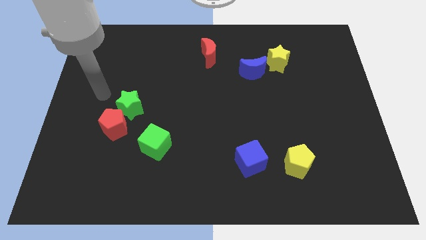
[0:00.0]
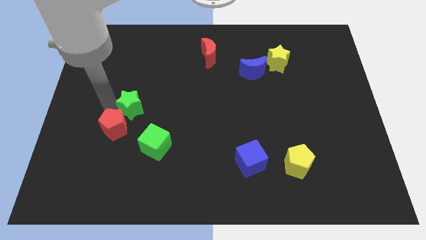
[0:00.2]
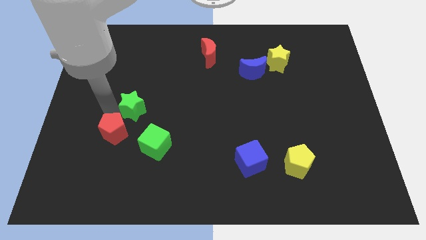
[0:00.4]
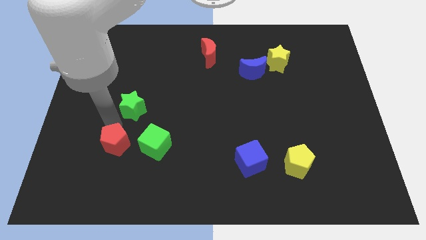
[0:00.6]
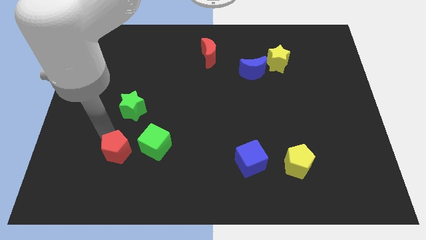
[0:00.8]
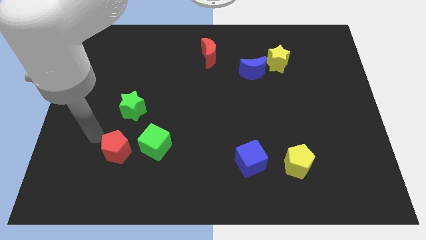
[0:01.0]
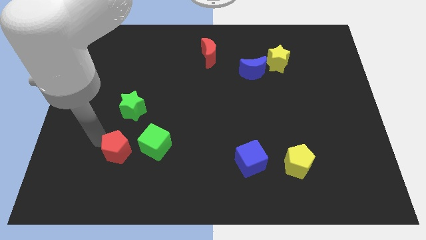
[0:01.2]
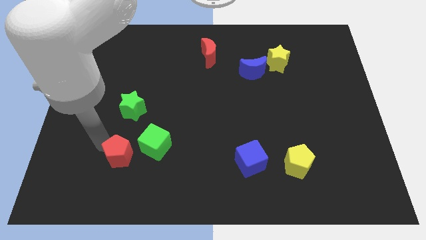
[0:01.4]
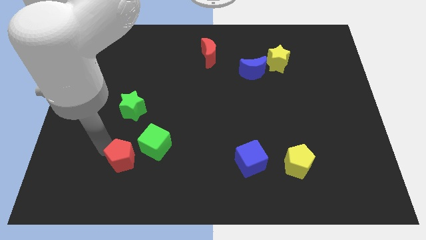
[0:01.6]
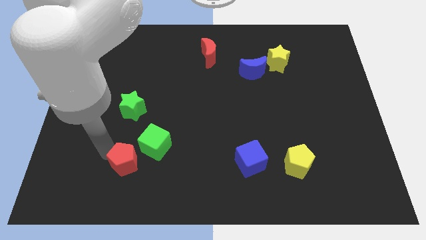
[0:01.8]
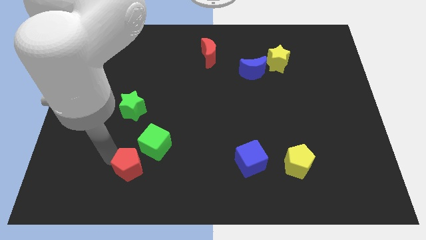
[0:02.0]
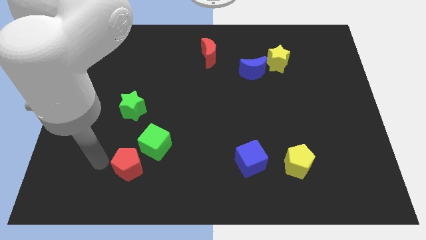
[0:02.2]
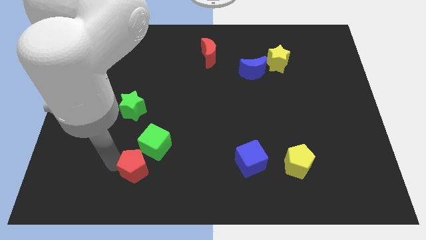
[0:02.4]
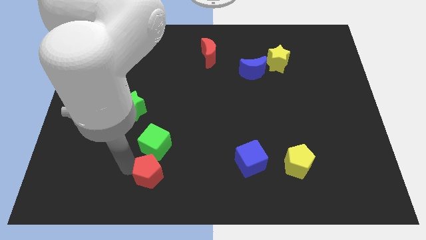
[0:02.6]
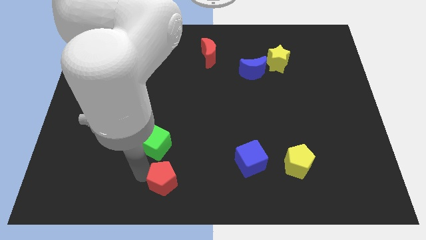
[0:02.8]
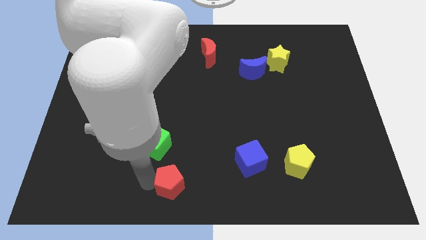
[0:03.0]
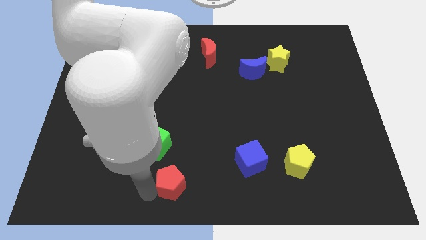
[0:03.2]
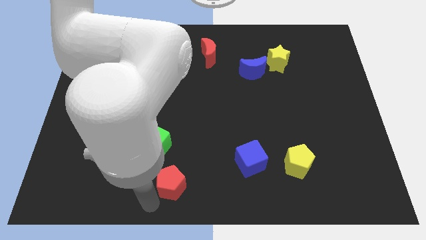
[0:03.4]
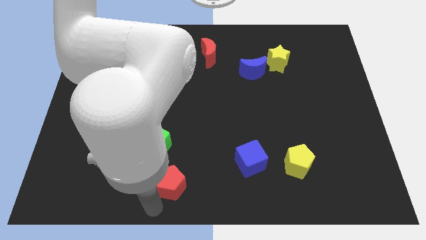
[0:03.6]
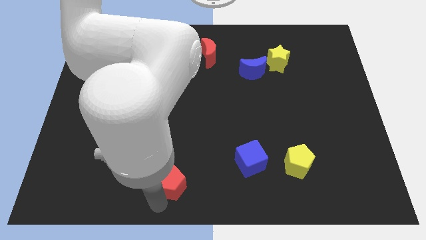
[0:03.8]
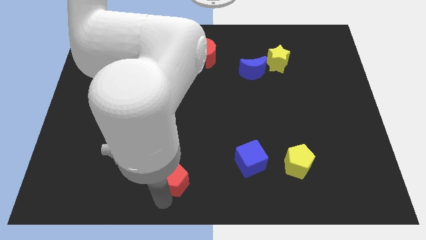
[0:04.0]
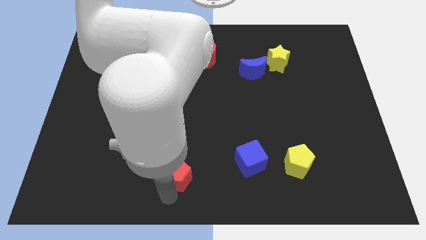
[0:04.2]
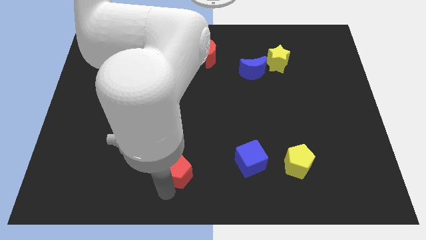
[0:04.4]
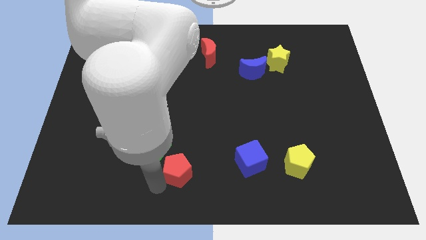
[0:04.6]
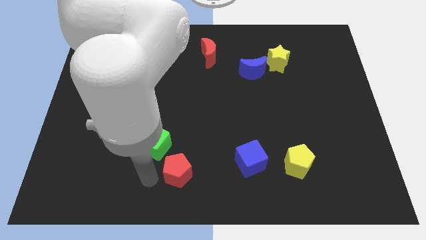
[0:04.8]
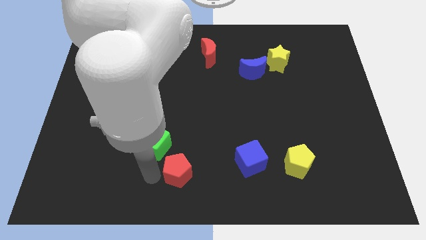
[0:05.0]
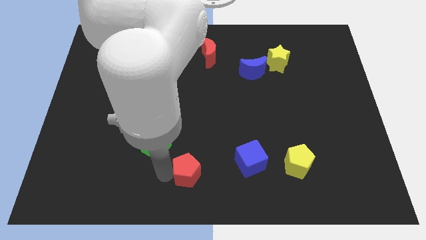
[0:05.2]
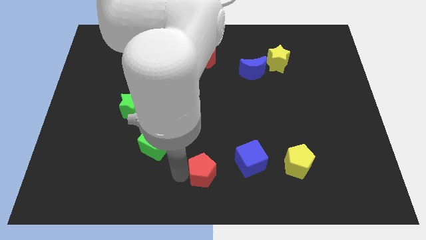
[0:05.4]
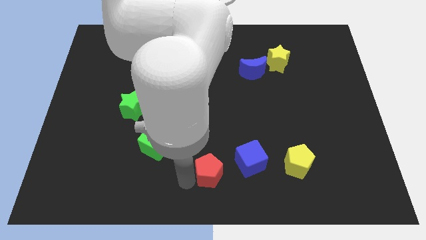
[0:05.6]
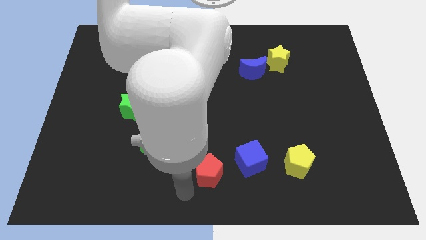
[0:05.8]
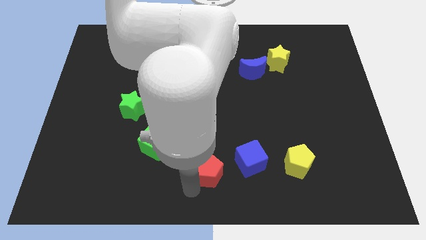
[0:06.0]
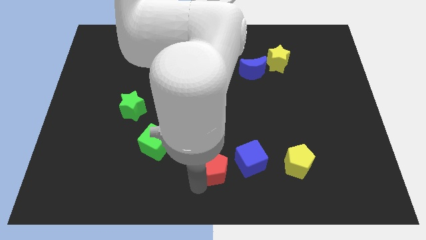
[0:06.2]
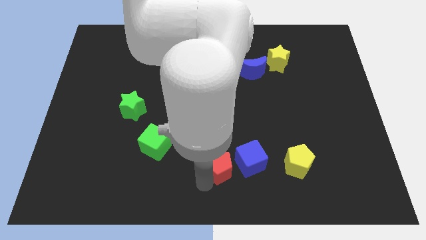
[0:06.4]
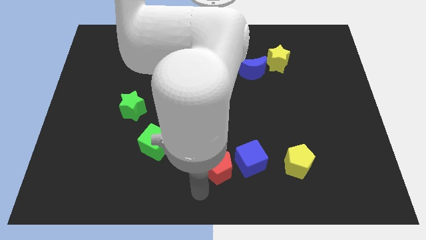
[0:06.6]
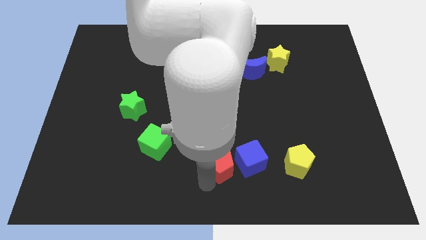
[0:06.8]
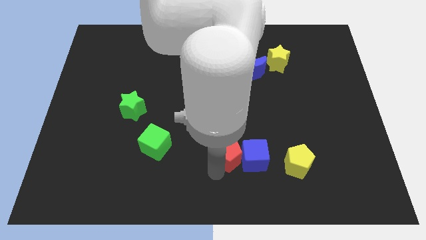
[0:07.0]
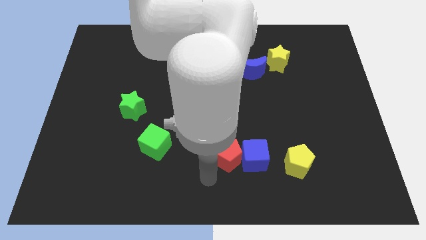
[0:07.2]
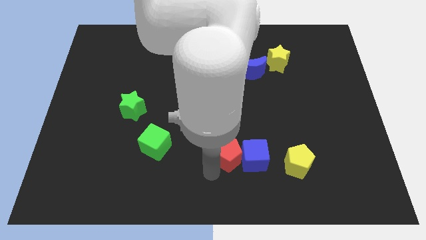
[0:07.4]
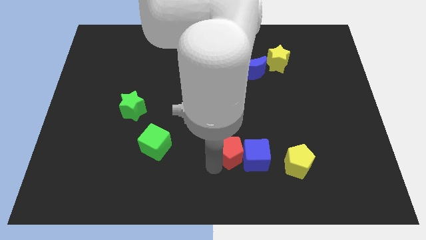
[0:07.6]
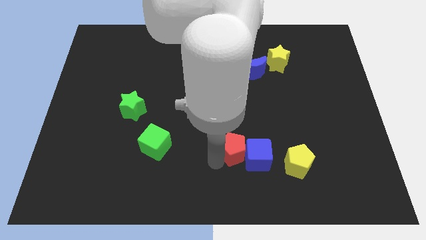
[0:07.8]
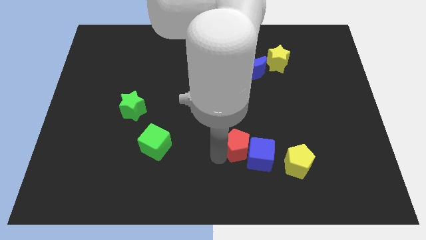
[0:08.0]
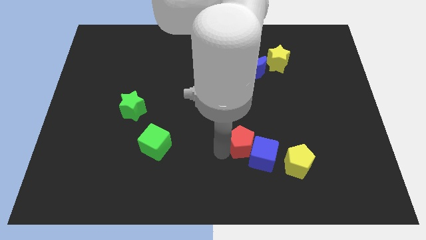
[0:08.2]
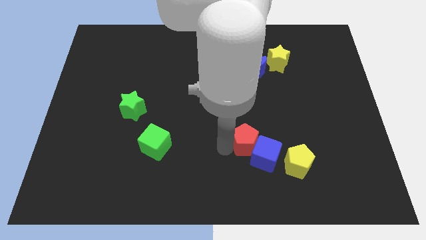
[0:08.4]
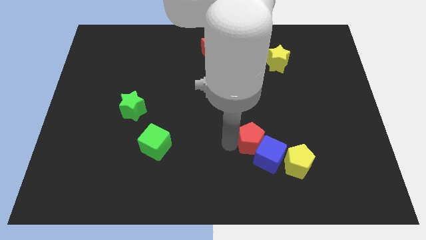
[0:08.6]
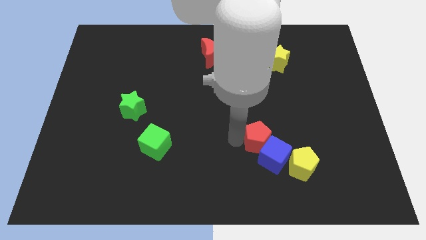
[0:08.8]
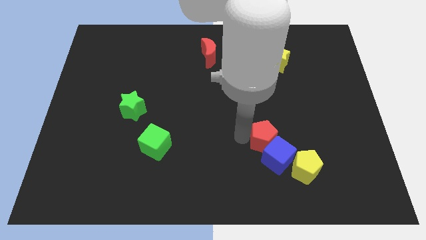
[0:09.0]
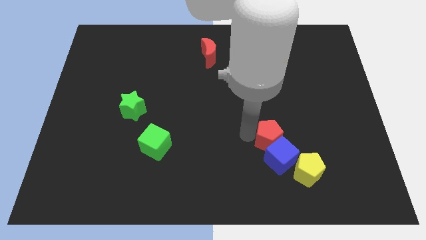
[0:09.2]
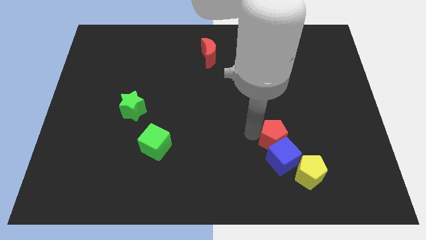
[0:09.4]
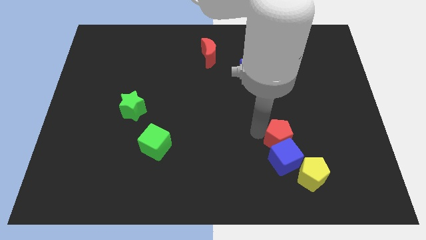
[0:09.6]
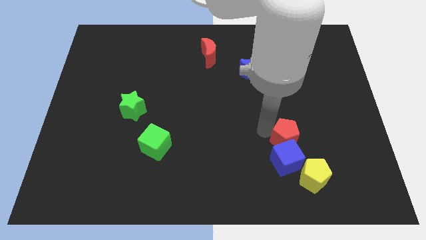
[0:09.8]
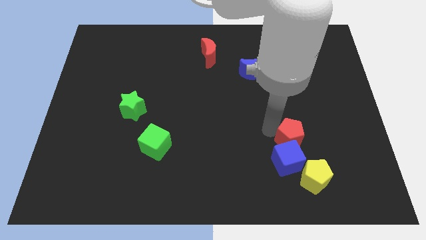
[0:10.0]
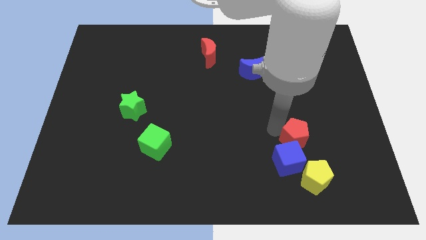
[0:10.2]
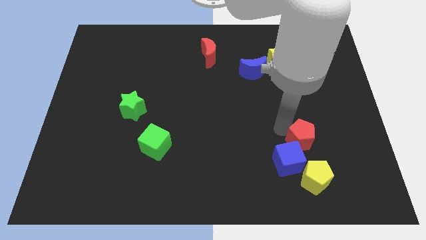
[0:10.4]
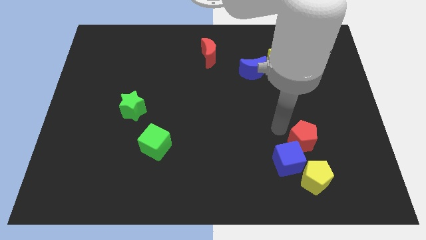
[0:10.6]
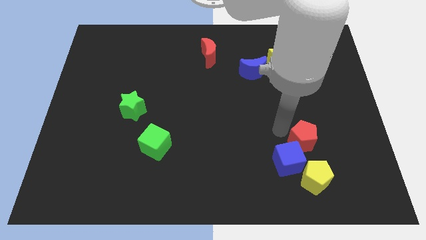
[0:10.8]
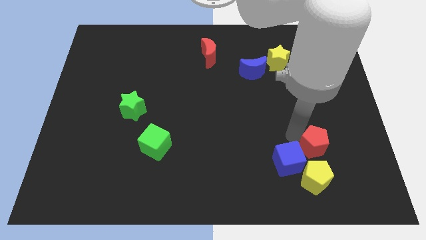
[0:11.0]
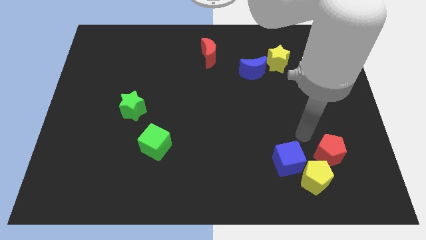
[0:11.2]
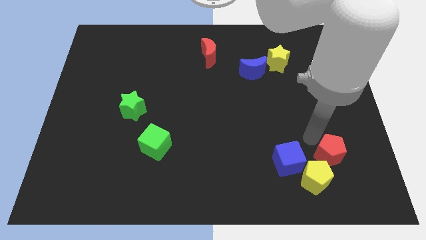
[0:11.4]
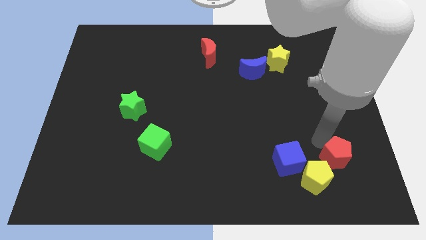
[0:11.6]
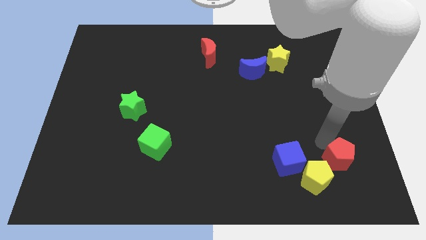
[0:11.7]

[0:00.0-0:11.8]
push the red pentagon right of the yellow pentagon

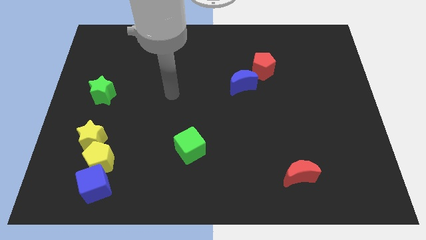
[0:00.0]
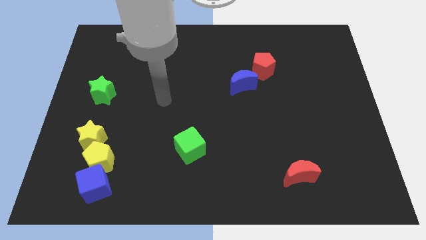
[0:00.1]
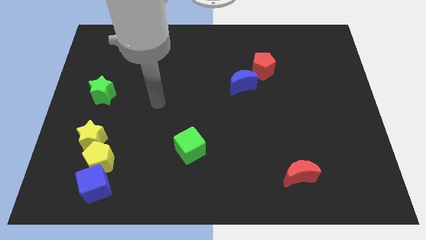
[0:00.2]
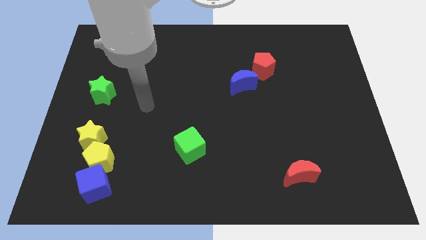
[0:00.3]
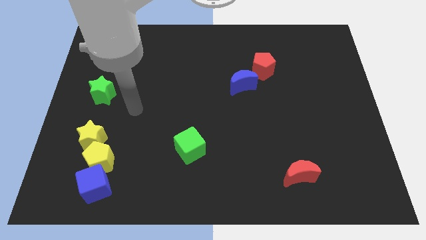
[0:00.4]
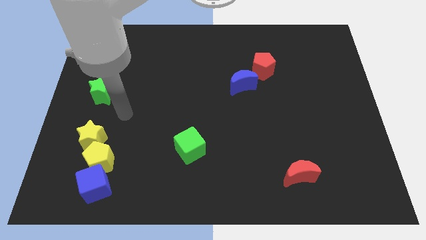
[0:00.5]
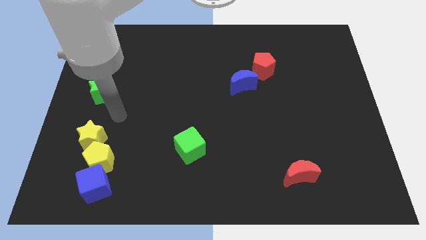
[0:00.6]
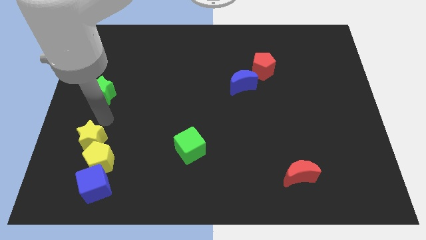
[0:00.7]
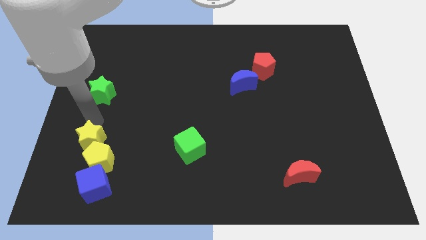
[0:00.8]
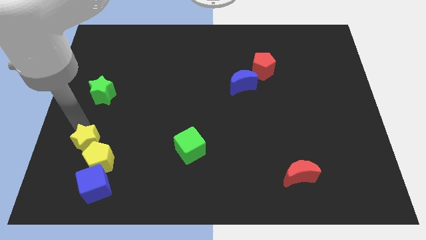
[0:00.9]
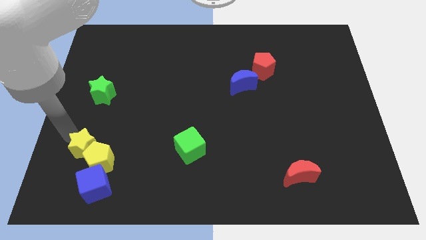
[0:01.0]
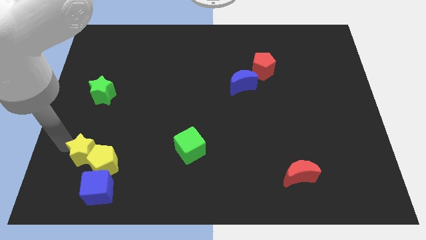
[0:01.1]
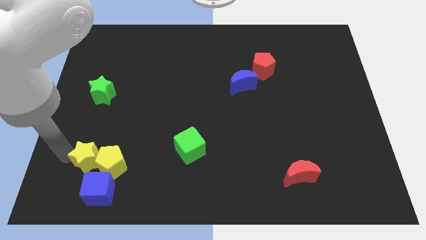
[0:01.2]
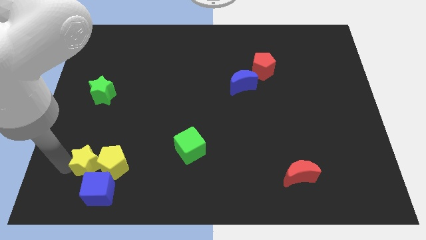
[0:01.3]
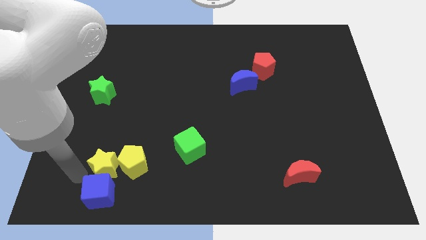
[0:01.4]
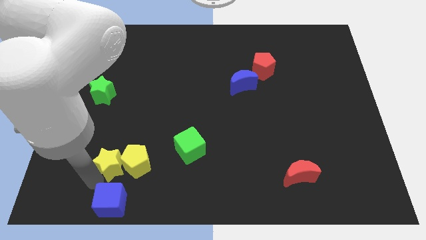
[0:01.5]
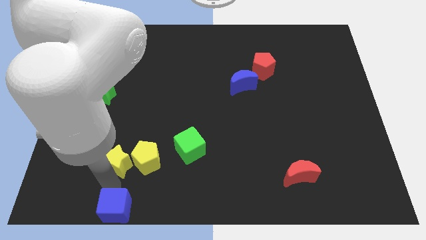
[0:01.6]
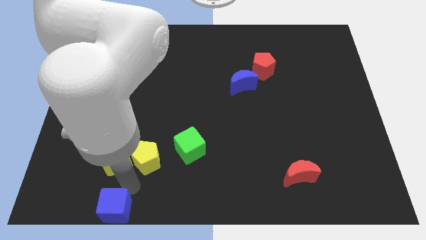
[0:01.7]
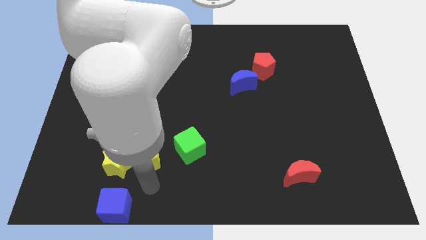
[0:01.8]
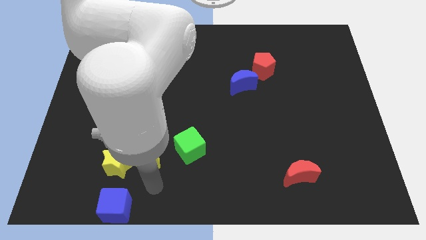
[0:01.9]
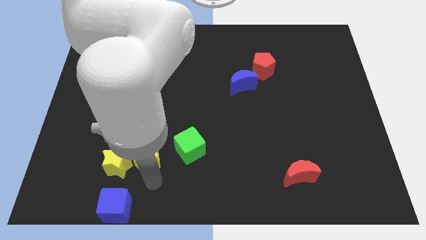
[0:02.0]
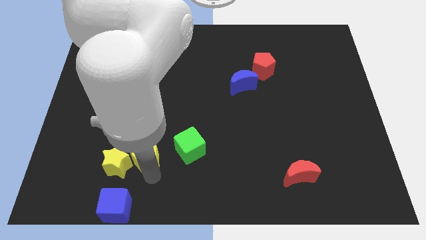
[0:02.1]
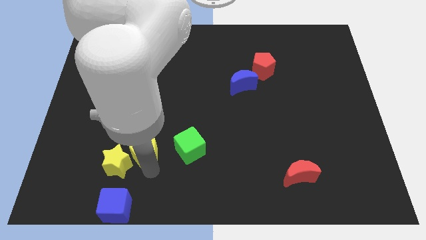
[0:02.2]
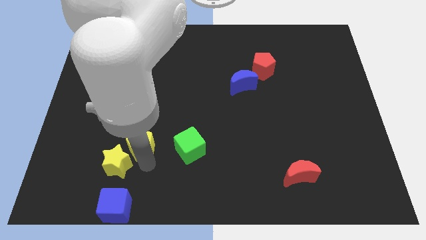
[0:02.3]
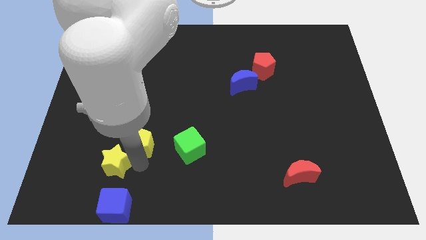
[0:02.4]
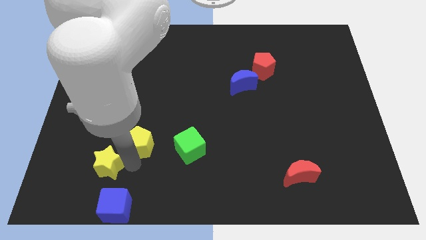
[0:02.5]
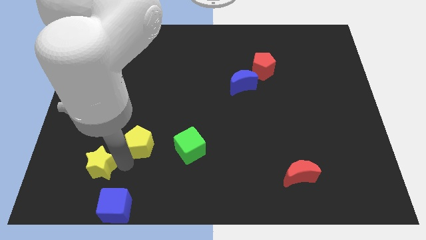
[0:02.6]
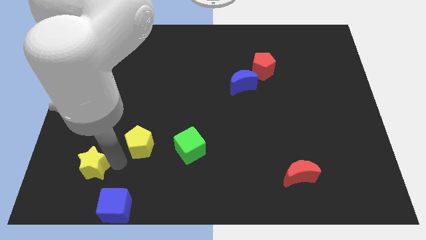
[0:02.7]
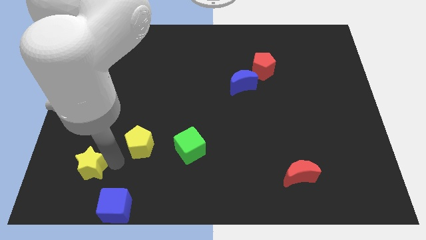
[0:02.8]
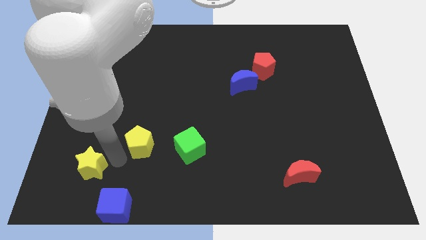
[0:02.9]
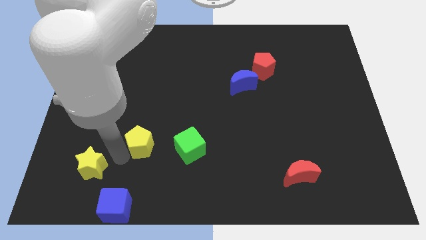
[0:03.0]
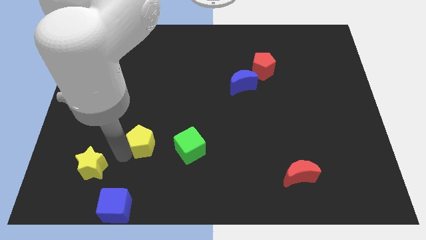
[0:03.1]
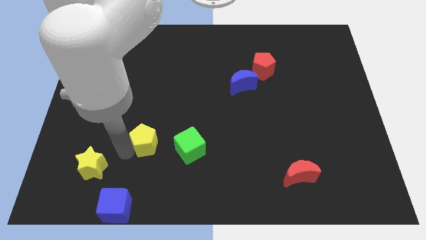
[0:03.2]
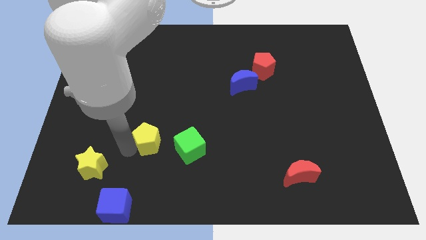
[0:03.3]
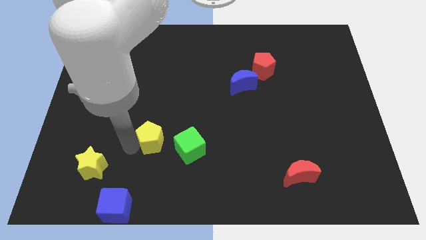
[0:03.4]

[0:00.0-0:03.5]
put the yellow pentagon to the top left of the green cube
